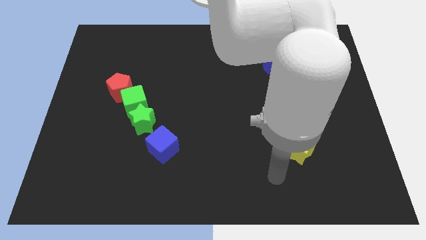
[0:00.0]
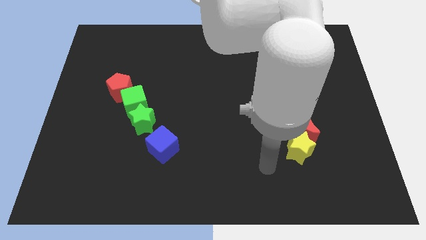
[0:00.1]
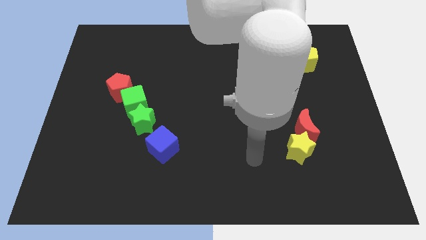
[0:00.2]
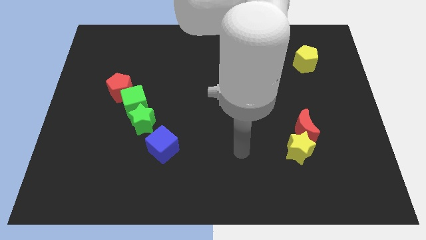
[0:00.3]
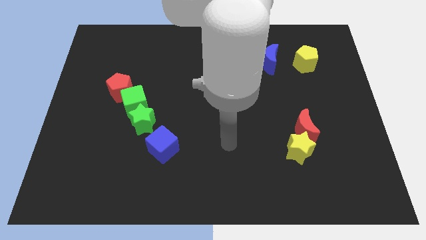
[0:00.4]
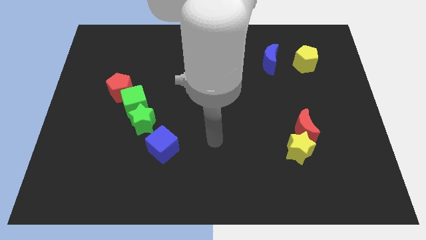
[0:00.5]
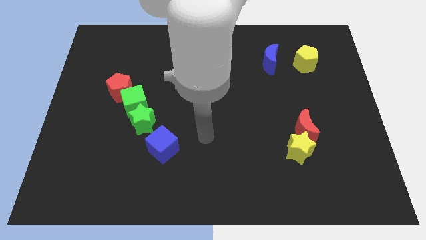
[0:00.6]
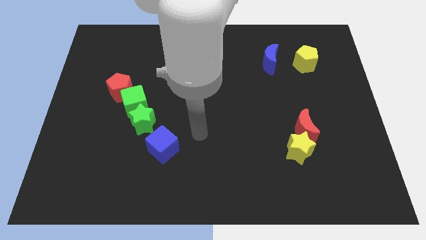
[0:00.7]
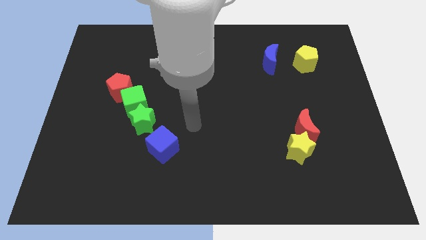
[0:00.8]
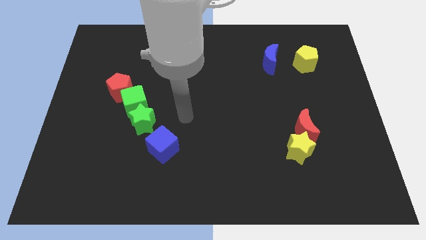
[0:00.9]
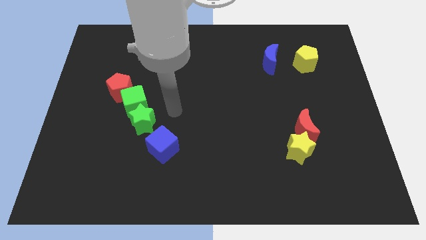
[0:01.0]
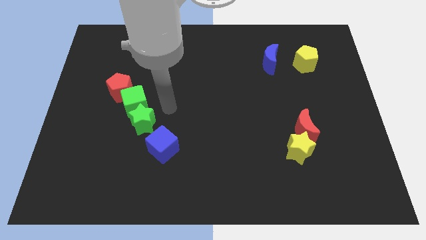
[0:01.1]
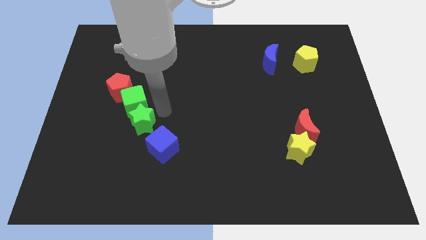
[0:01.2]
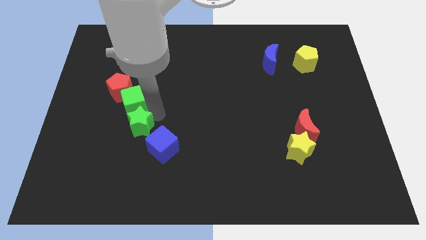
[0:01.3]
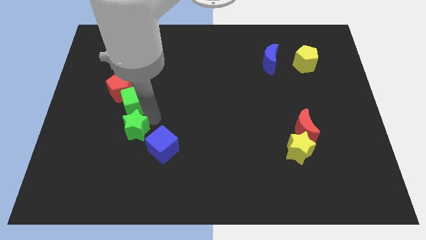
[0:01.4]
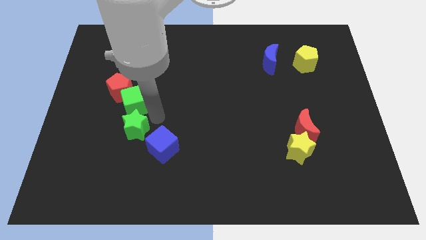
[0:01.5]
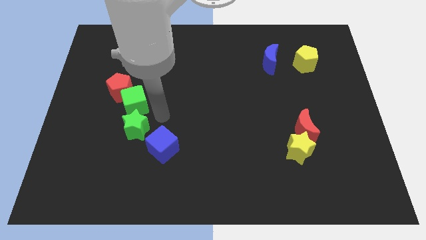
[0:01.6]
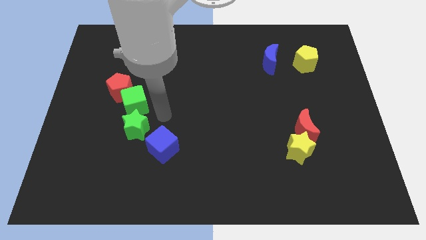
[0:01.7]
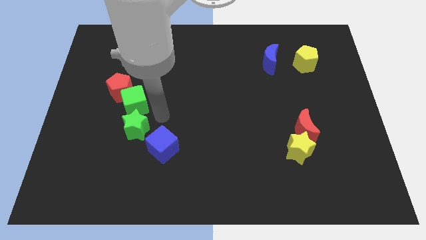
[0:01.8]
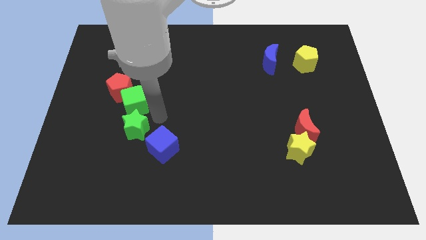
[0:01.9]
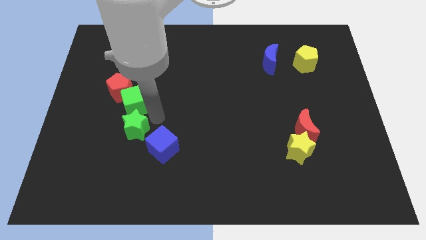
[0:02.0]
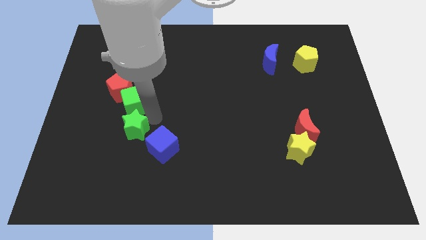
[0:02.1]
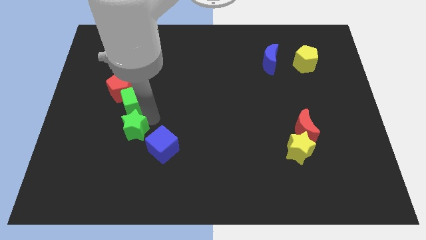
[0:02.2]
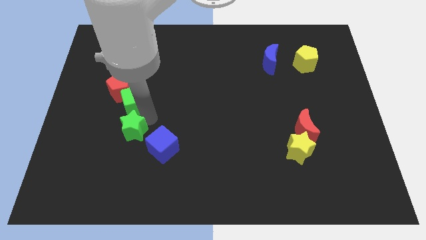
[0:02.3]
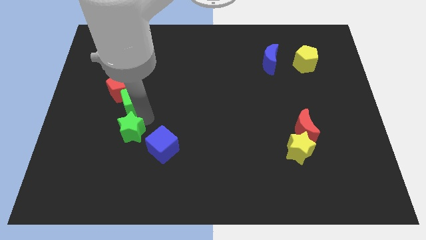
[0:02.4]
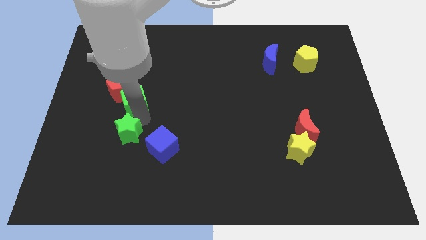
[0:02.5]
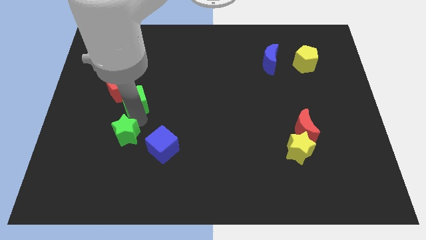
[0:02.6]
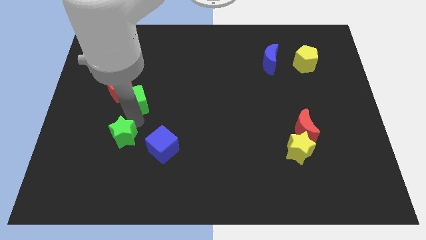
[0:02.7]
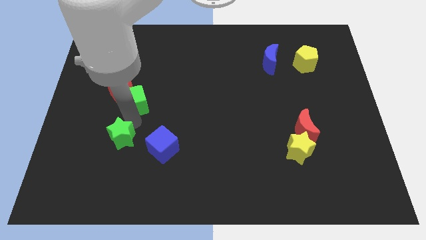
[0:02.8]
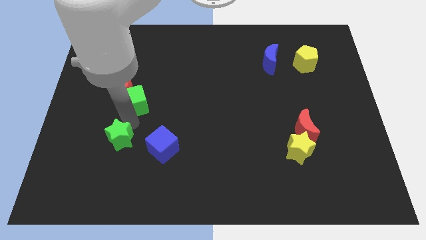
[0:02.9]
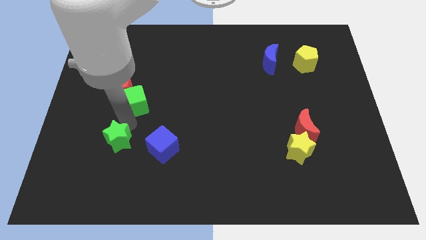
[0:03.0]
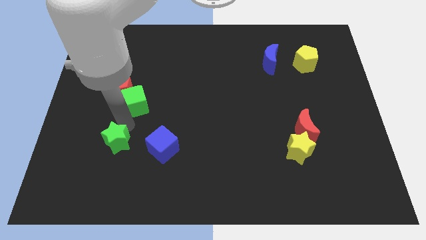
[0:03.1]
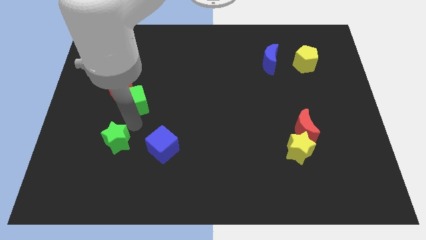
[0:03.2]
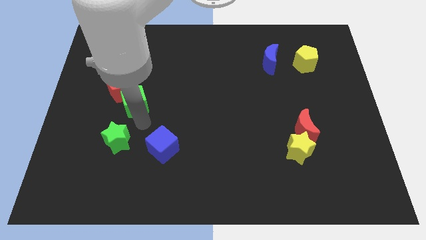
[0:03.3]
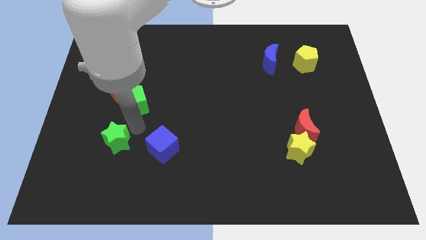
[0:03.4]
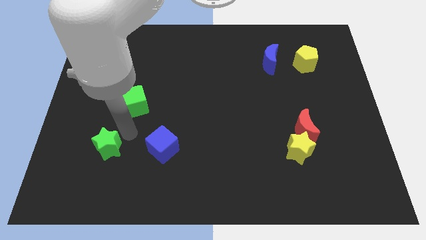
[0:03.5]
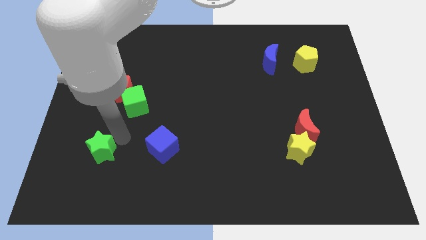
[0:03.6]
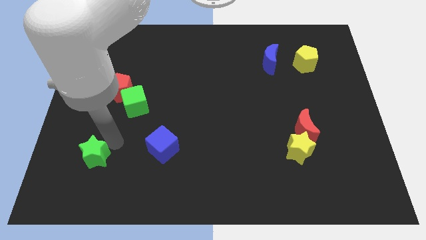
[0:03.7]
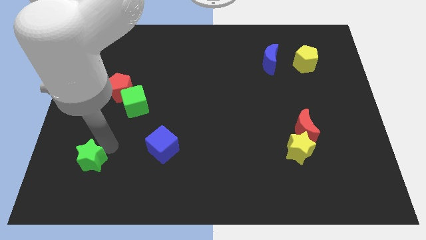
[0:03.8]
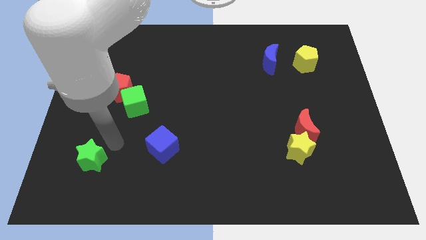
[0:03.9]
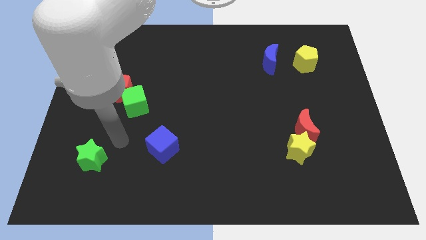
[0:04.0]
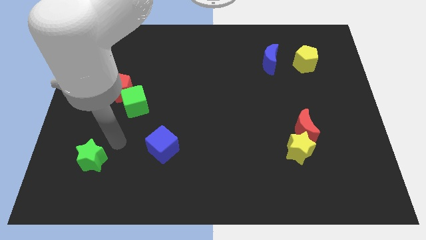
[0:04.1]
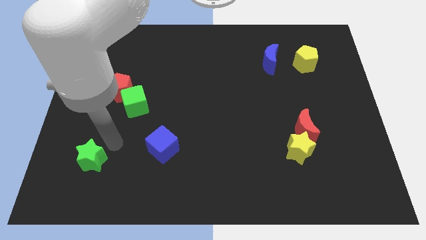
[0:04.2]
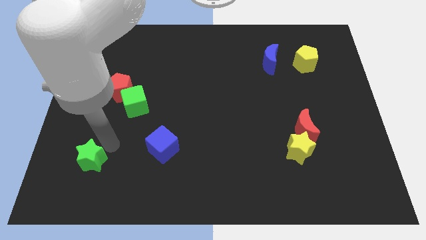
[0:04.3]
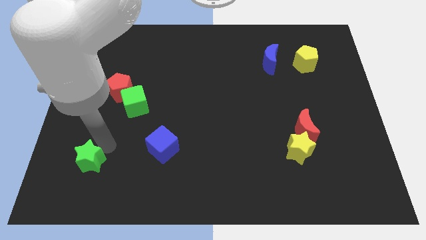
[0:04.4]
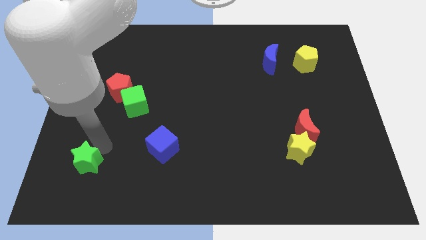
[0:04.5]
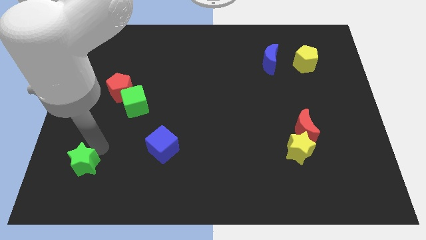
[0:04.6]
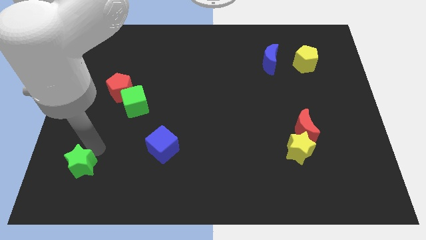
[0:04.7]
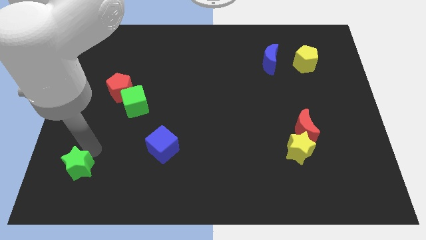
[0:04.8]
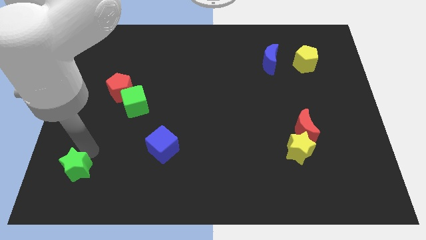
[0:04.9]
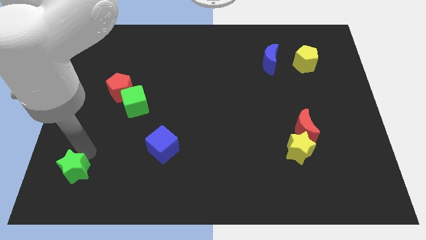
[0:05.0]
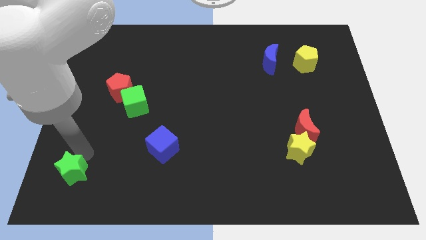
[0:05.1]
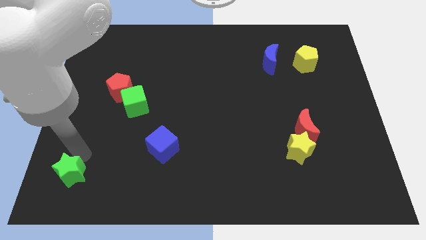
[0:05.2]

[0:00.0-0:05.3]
slide the green star to the lower left corner

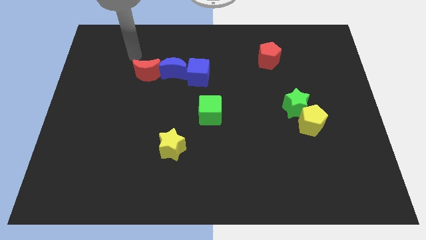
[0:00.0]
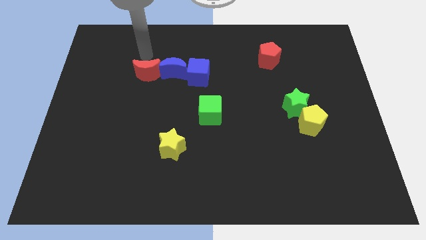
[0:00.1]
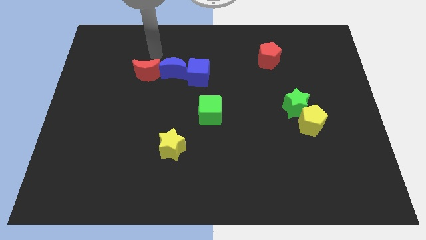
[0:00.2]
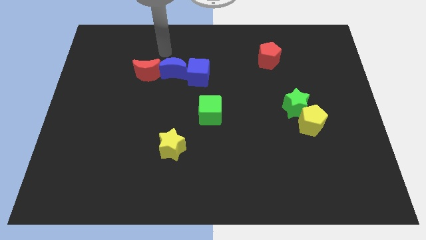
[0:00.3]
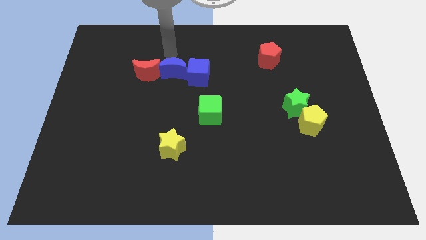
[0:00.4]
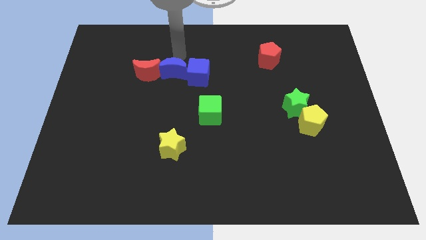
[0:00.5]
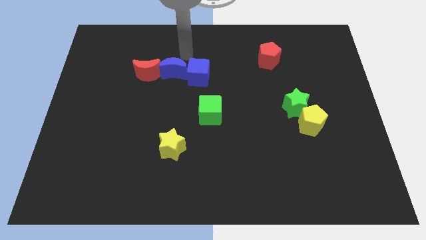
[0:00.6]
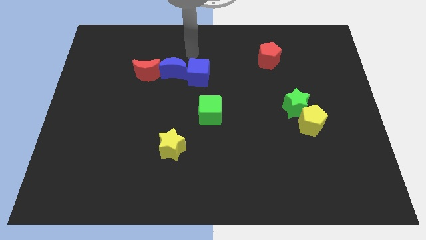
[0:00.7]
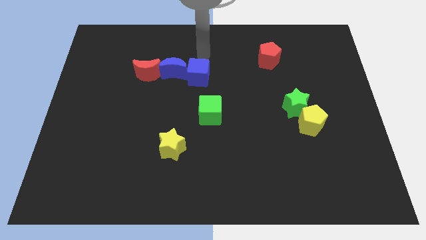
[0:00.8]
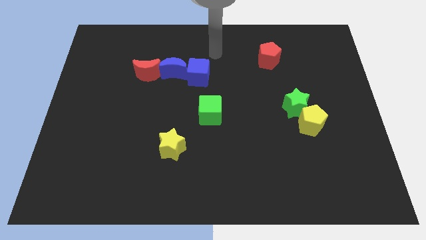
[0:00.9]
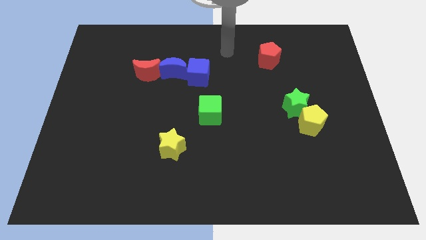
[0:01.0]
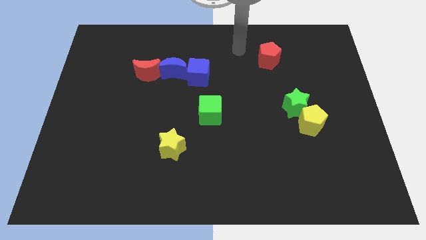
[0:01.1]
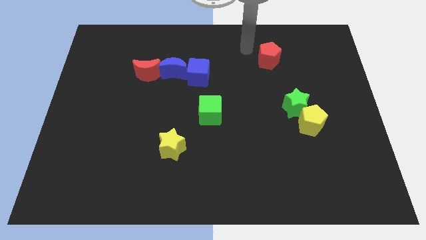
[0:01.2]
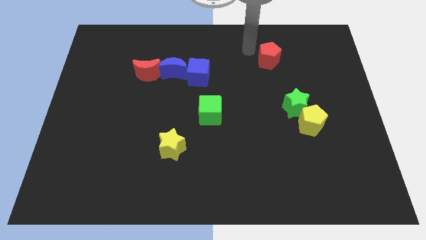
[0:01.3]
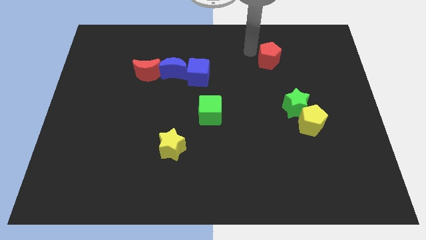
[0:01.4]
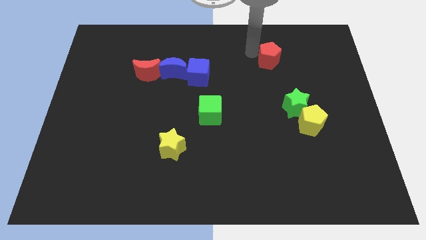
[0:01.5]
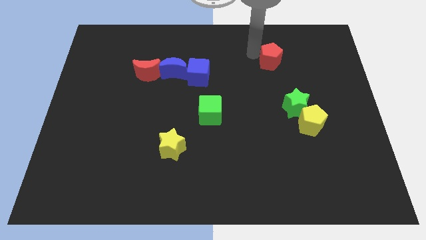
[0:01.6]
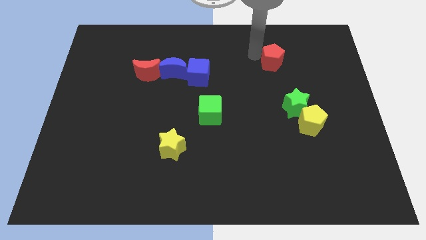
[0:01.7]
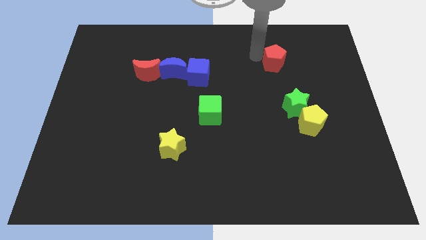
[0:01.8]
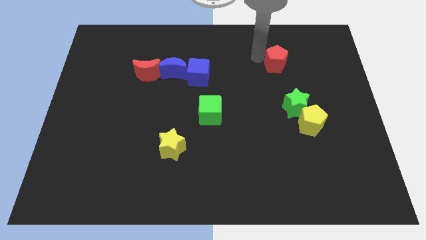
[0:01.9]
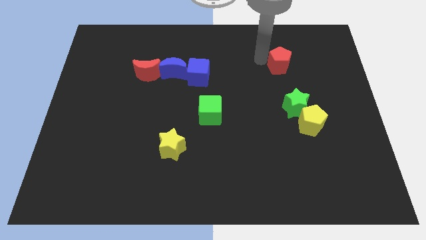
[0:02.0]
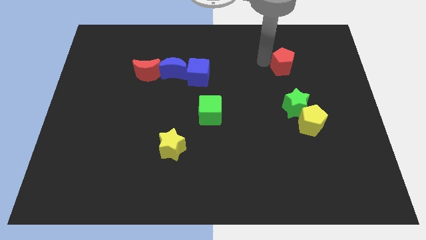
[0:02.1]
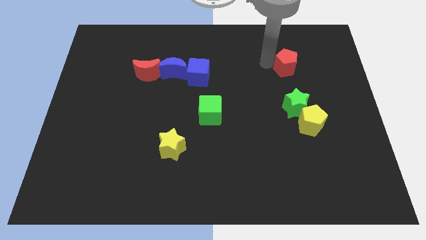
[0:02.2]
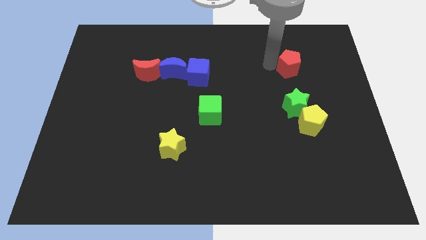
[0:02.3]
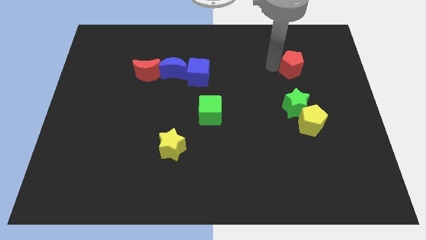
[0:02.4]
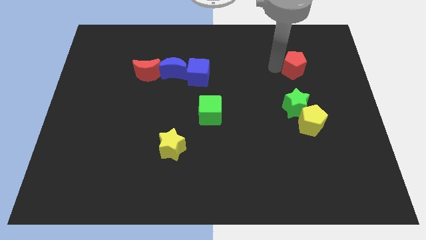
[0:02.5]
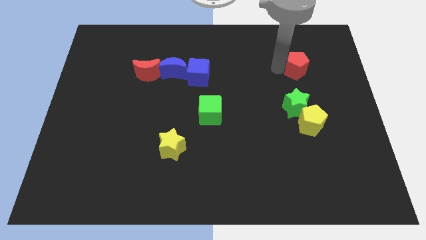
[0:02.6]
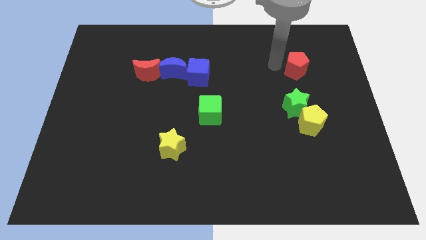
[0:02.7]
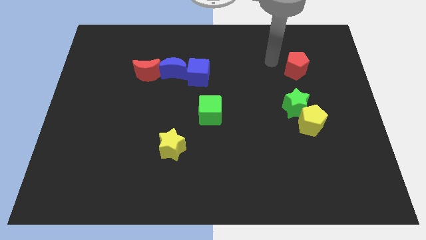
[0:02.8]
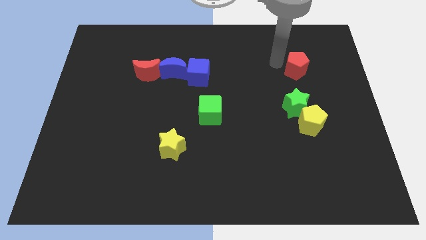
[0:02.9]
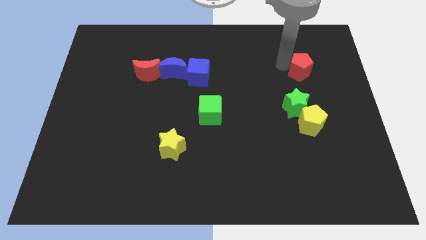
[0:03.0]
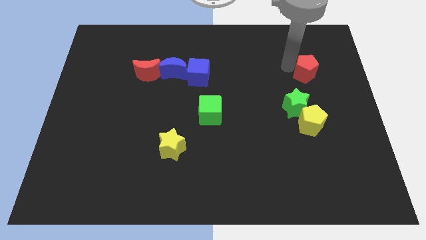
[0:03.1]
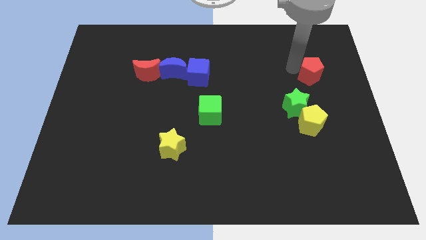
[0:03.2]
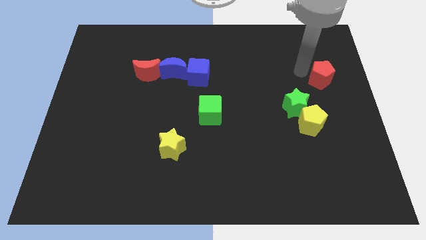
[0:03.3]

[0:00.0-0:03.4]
slide the red pentagon to the right side
